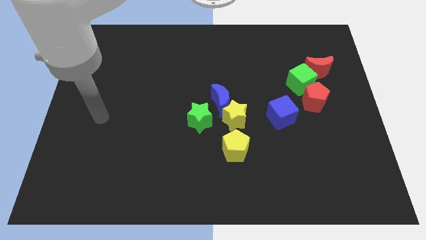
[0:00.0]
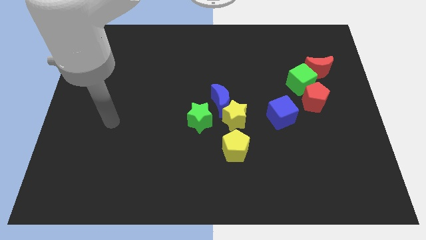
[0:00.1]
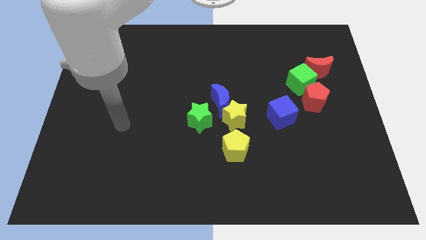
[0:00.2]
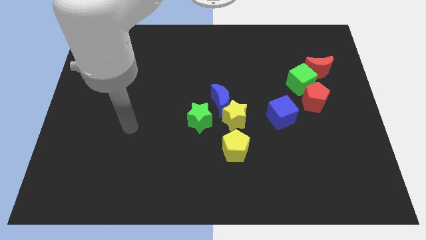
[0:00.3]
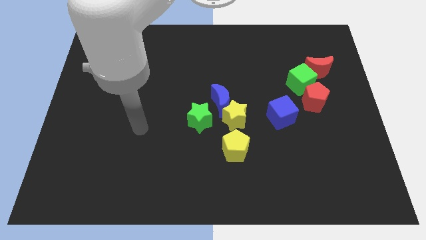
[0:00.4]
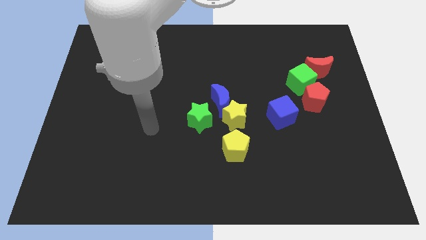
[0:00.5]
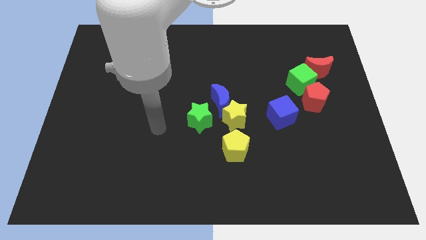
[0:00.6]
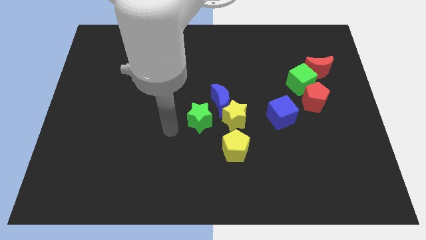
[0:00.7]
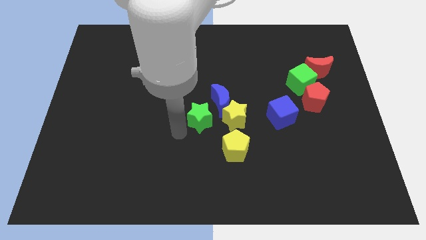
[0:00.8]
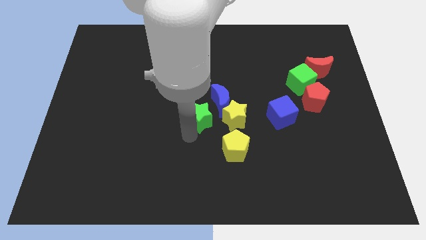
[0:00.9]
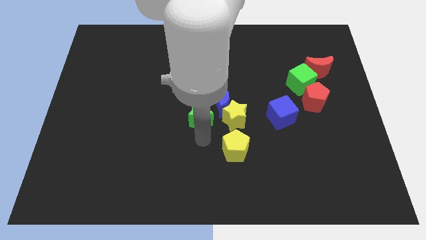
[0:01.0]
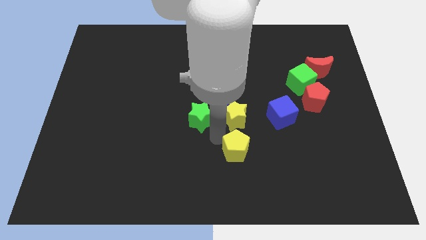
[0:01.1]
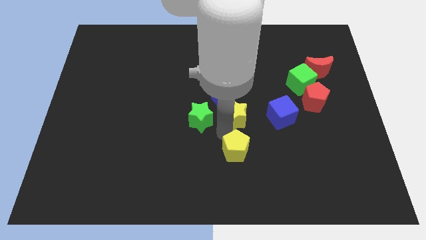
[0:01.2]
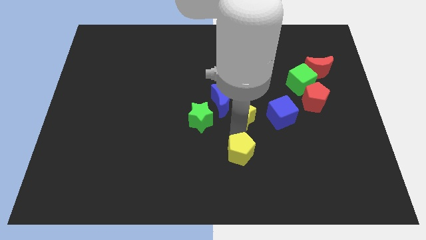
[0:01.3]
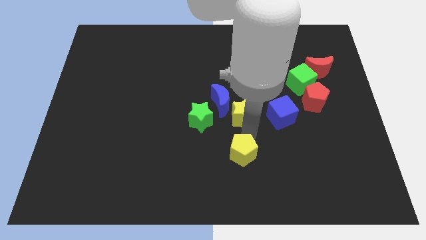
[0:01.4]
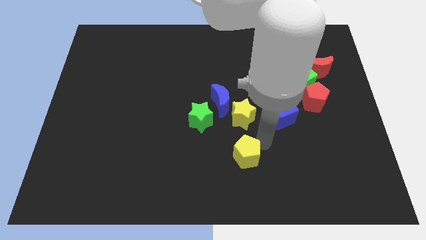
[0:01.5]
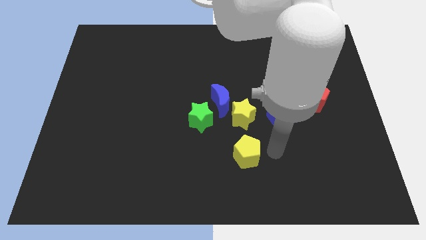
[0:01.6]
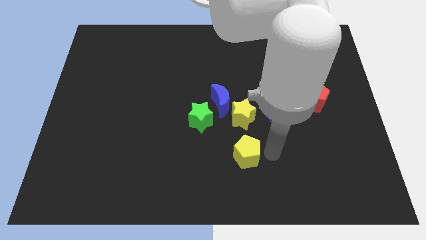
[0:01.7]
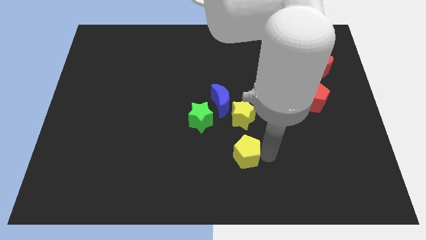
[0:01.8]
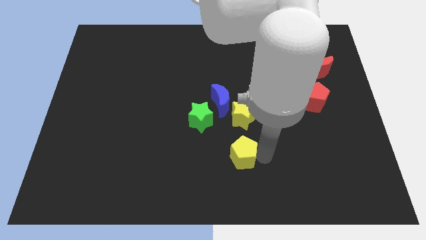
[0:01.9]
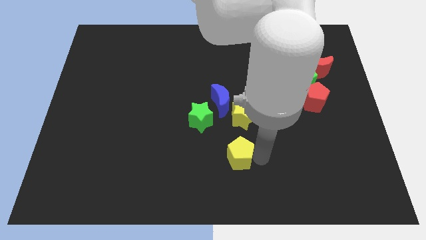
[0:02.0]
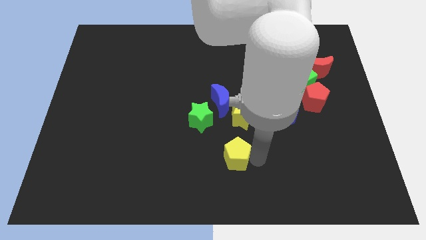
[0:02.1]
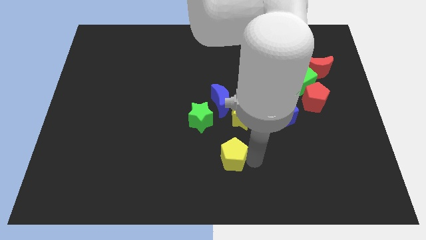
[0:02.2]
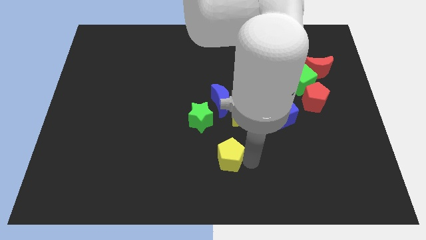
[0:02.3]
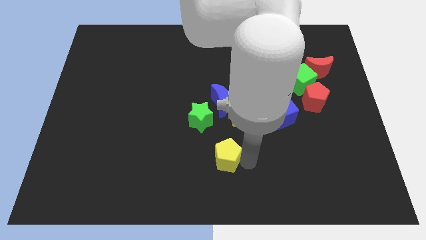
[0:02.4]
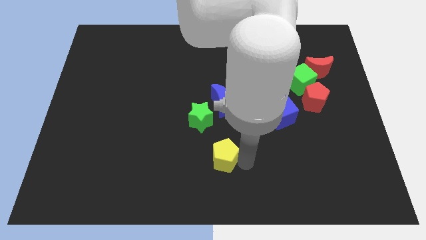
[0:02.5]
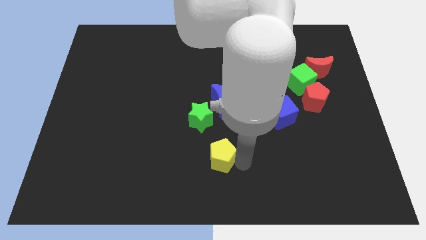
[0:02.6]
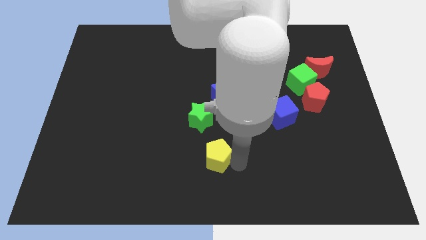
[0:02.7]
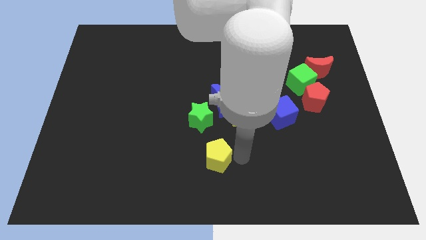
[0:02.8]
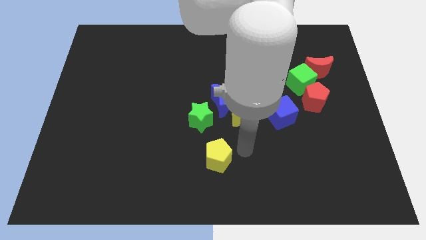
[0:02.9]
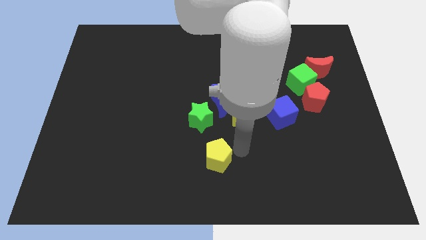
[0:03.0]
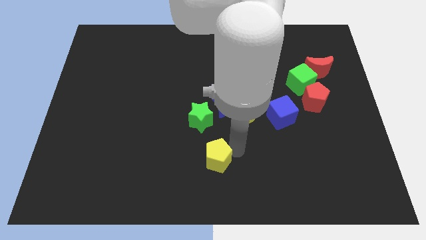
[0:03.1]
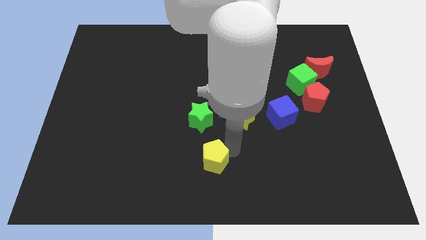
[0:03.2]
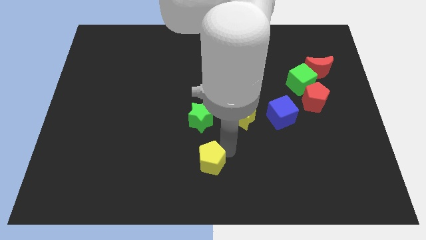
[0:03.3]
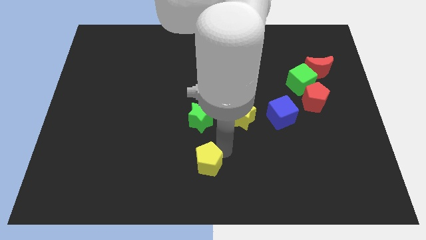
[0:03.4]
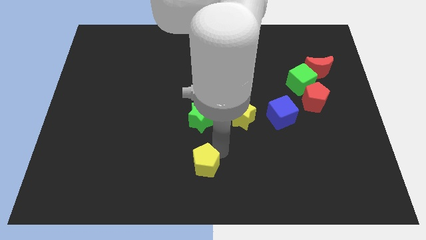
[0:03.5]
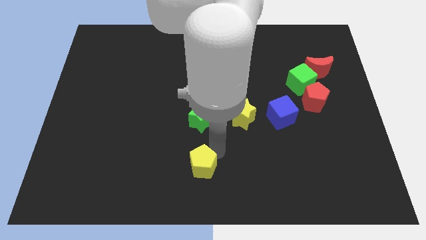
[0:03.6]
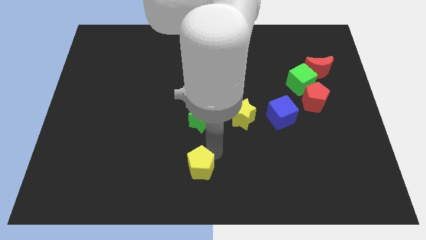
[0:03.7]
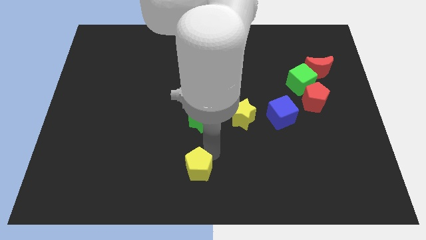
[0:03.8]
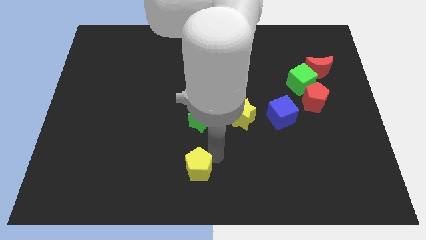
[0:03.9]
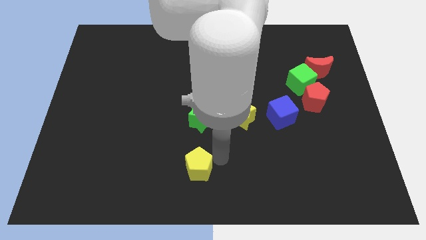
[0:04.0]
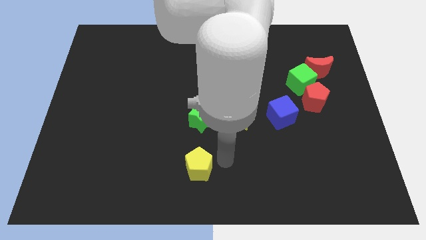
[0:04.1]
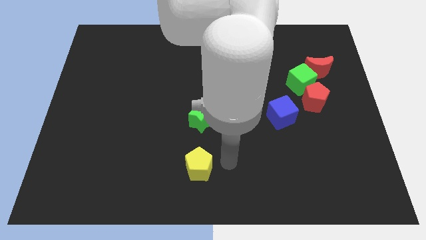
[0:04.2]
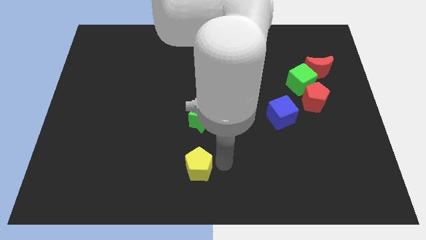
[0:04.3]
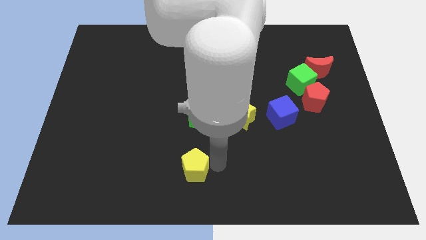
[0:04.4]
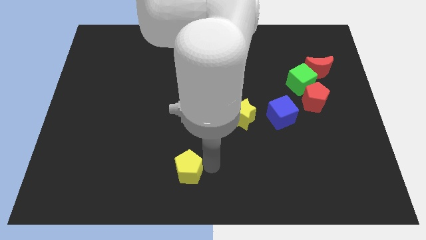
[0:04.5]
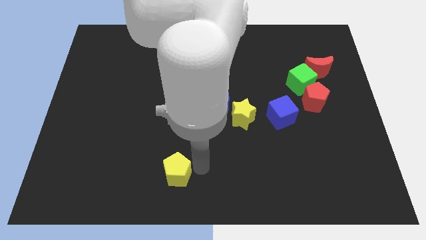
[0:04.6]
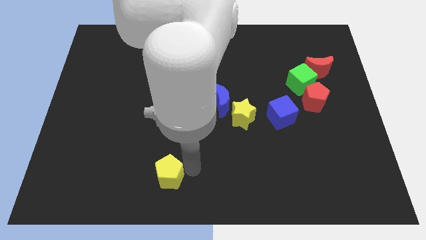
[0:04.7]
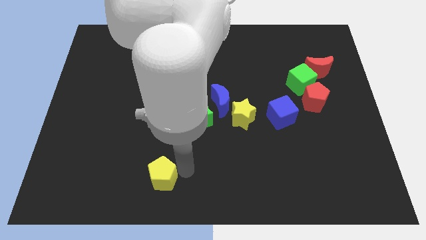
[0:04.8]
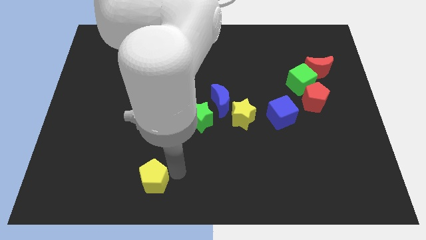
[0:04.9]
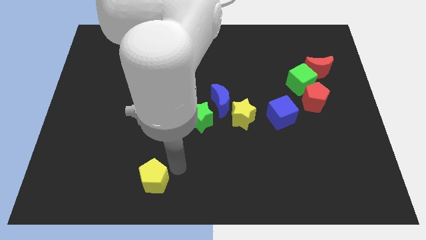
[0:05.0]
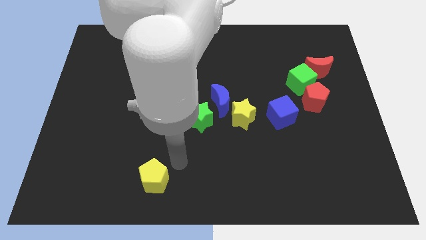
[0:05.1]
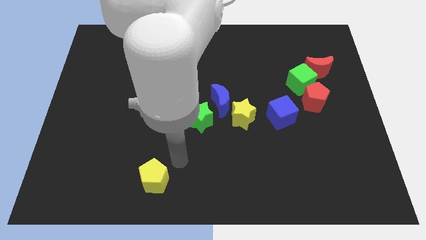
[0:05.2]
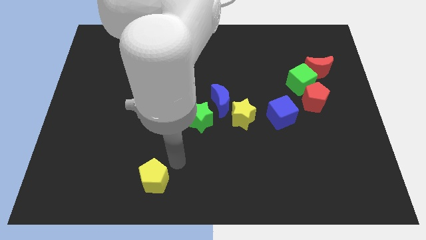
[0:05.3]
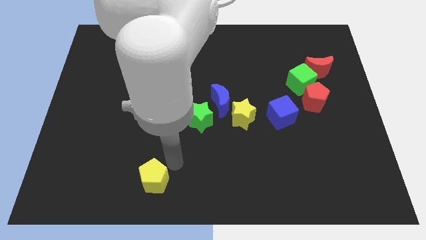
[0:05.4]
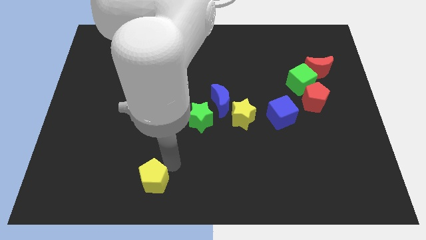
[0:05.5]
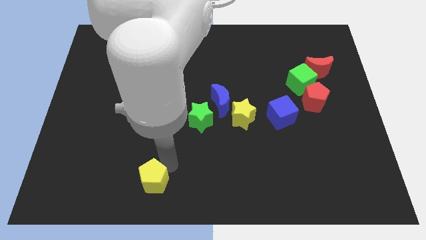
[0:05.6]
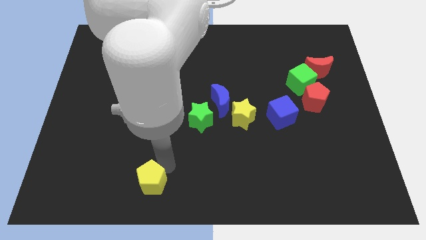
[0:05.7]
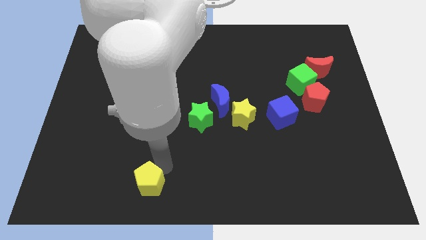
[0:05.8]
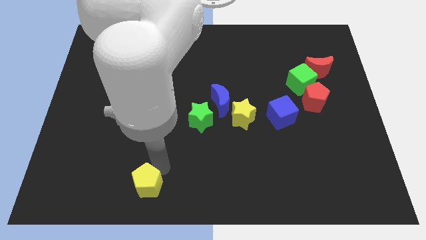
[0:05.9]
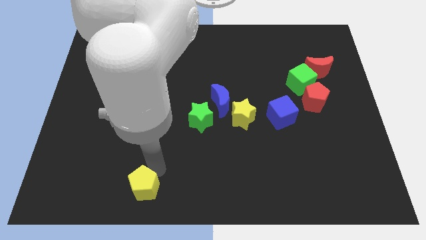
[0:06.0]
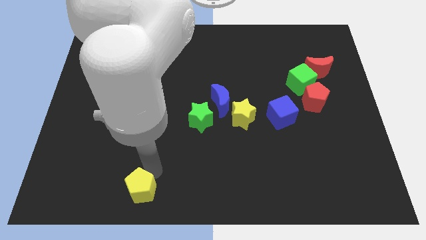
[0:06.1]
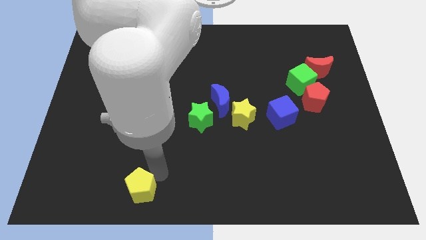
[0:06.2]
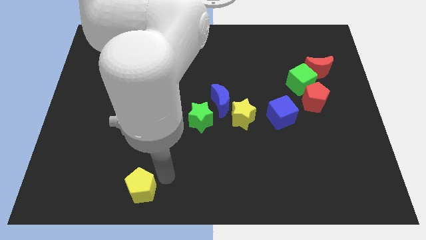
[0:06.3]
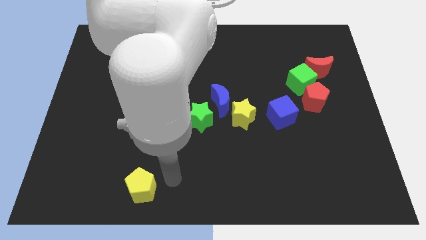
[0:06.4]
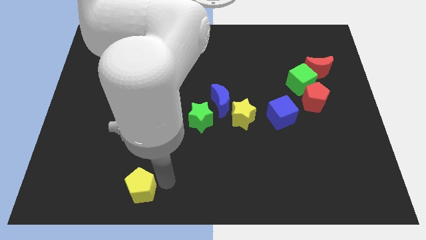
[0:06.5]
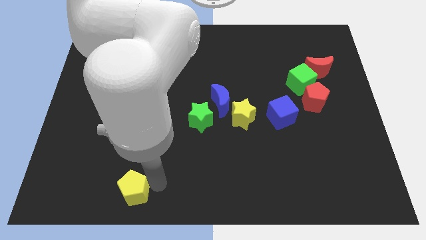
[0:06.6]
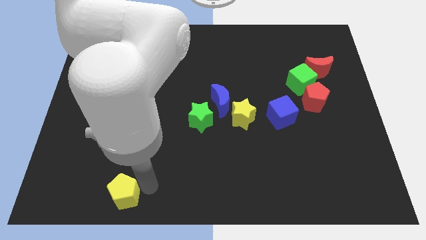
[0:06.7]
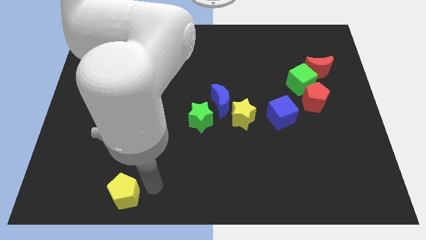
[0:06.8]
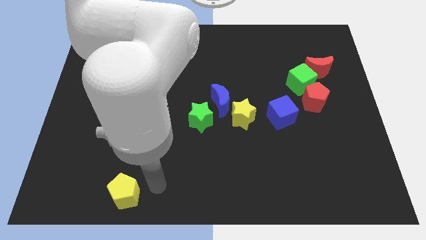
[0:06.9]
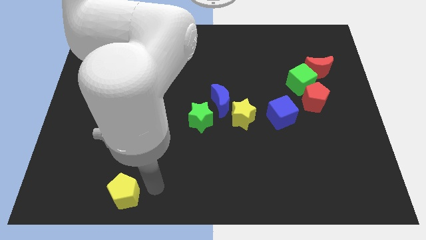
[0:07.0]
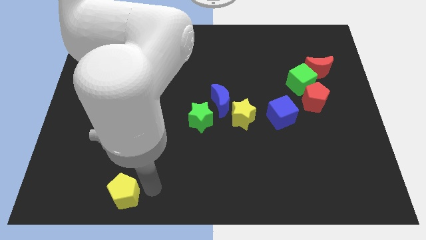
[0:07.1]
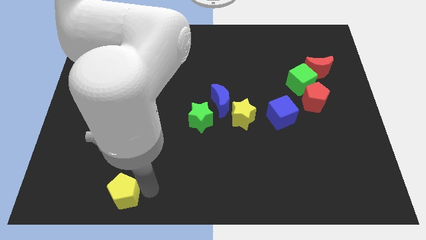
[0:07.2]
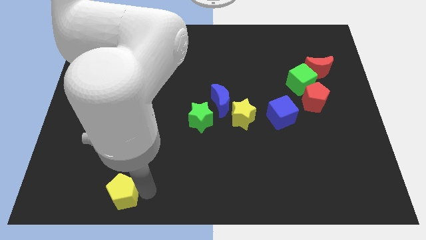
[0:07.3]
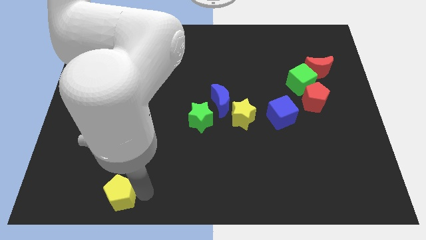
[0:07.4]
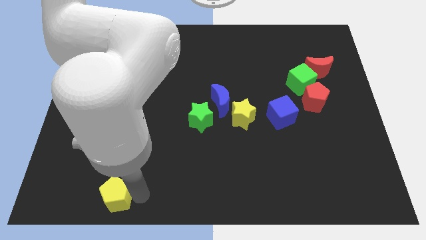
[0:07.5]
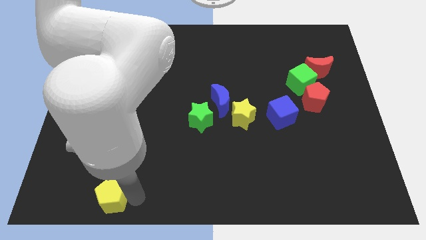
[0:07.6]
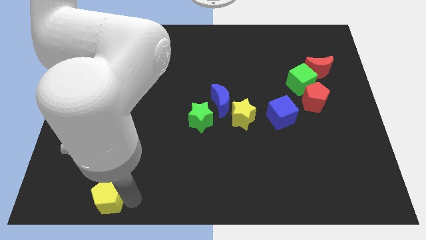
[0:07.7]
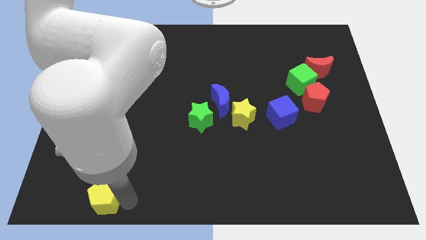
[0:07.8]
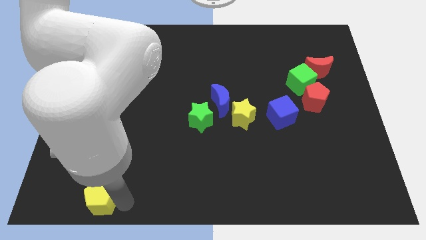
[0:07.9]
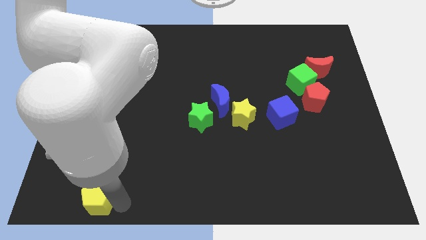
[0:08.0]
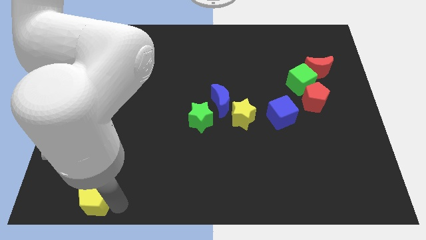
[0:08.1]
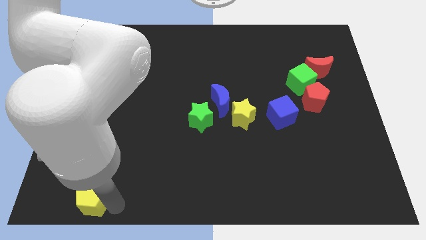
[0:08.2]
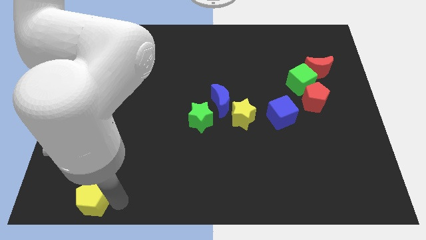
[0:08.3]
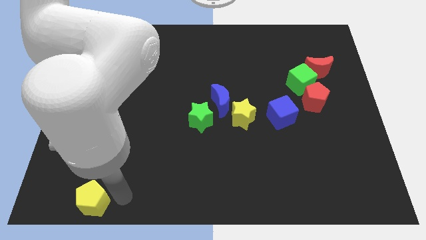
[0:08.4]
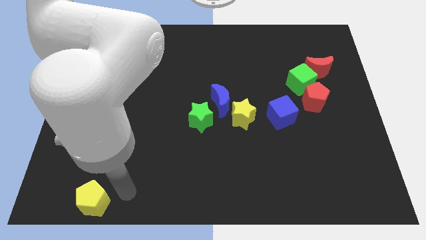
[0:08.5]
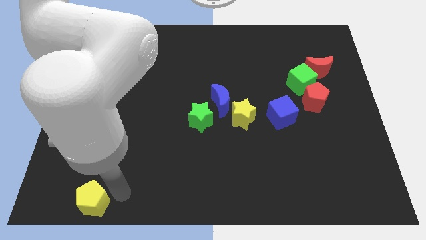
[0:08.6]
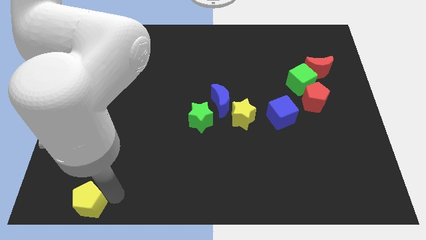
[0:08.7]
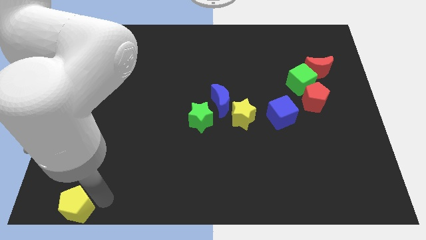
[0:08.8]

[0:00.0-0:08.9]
put the yellow pentagon to the bottom left corner
